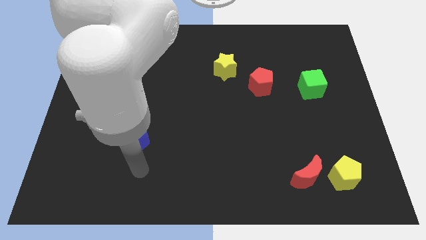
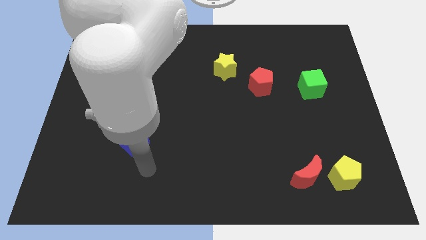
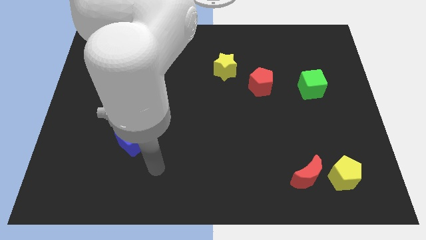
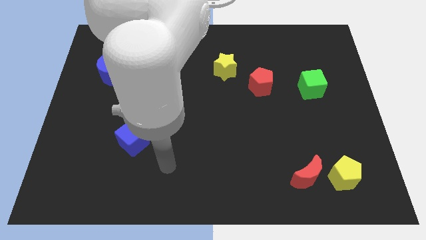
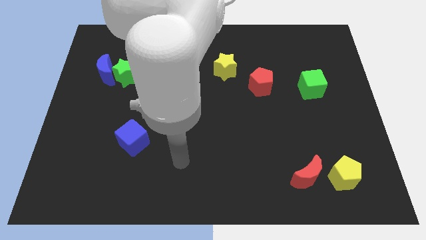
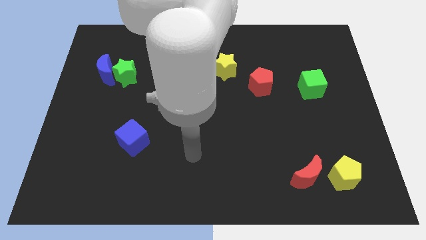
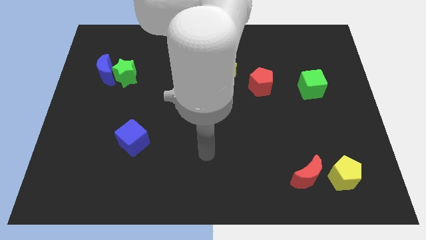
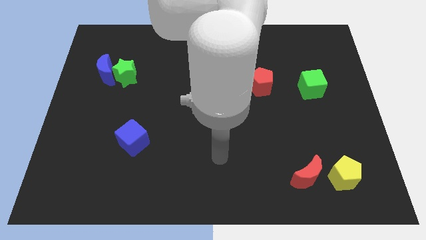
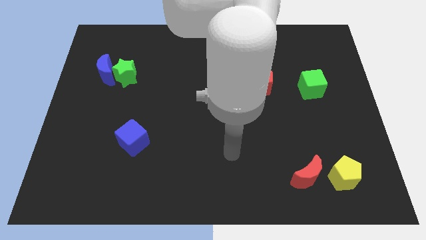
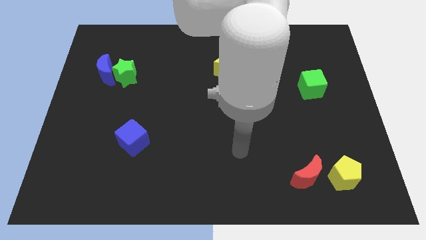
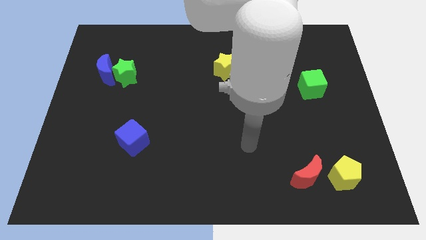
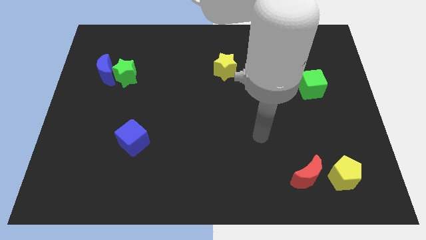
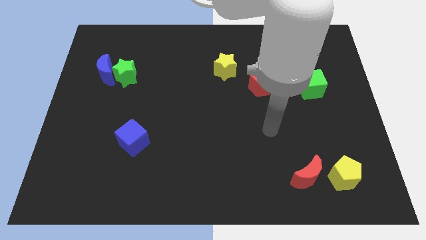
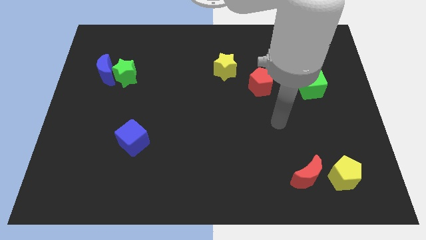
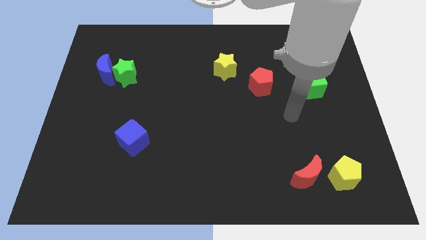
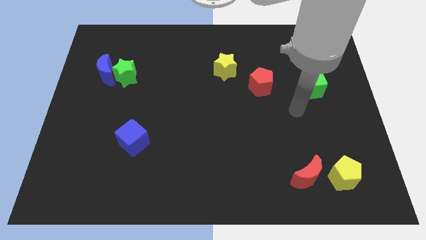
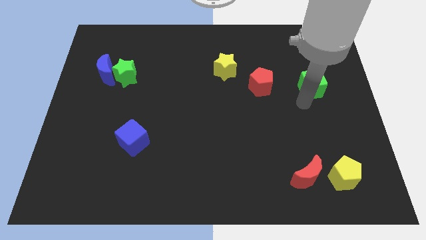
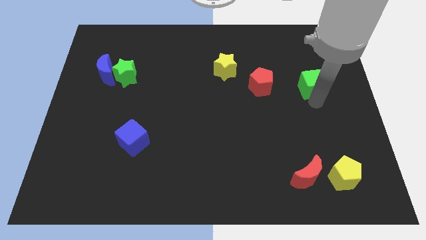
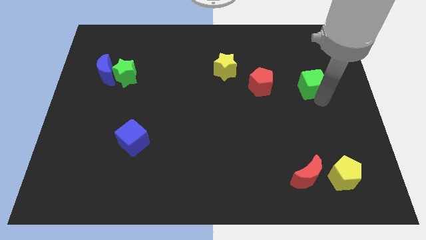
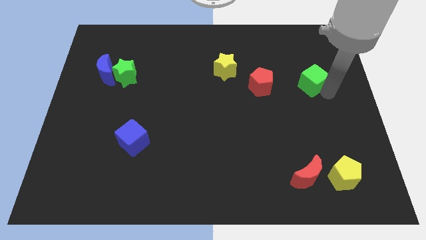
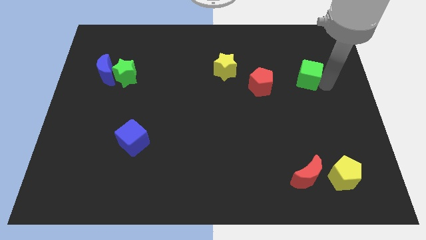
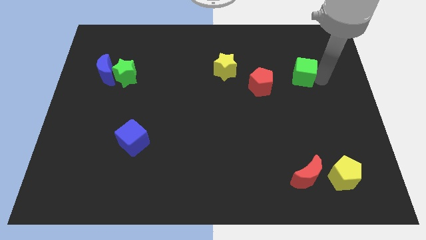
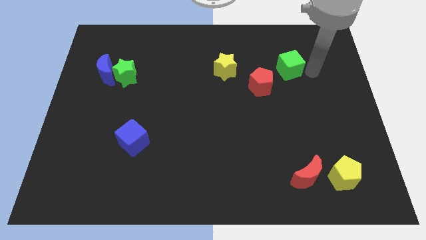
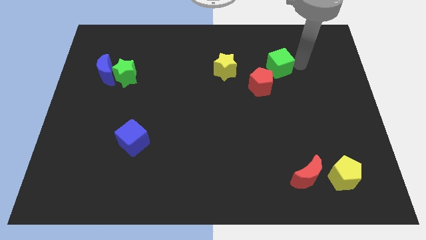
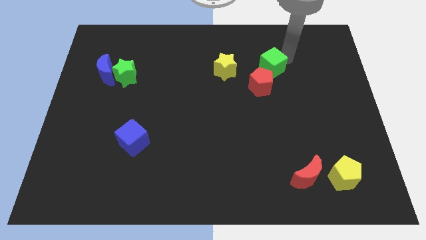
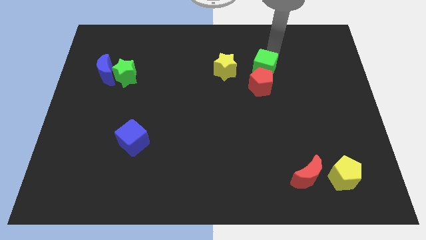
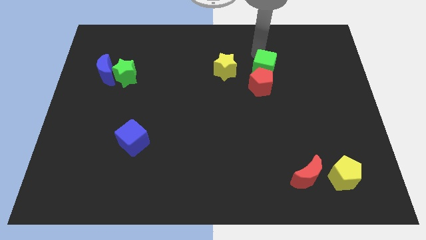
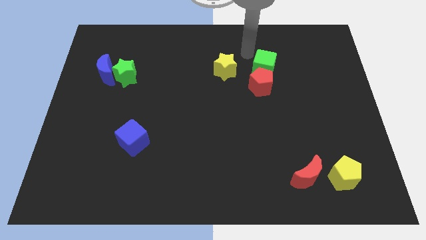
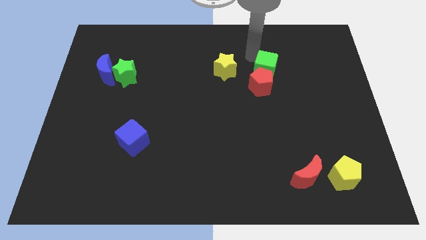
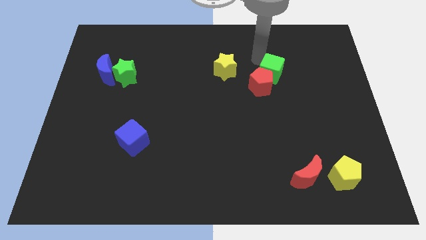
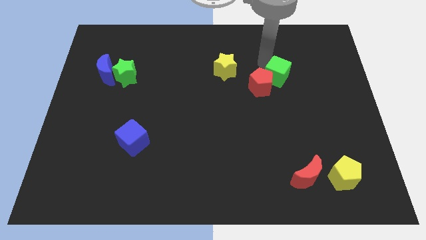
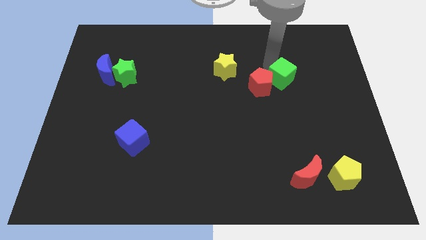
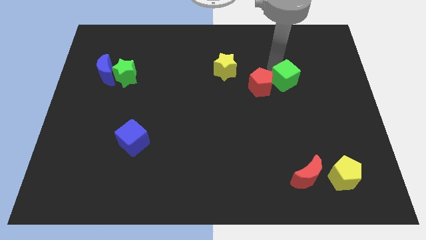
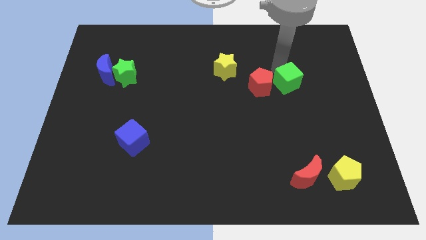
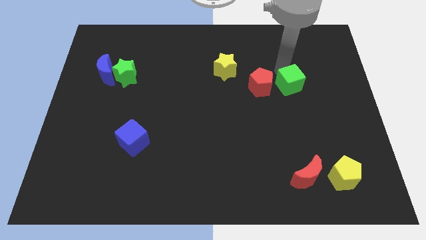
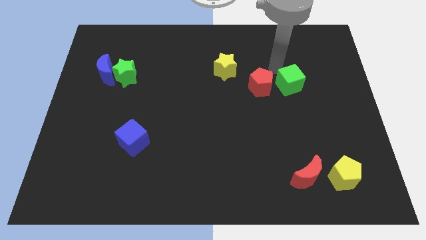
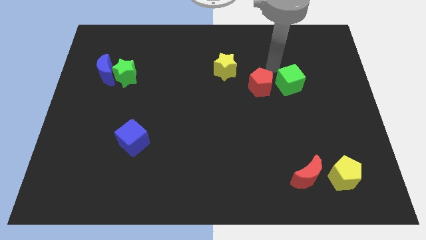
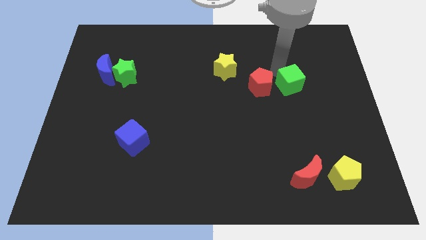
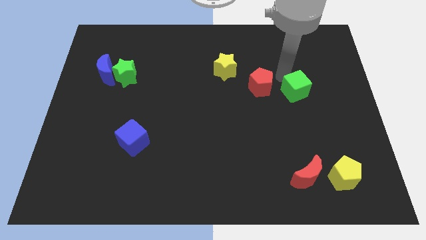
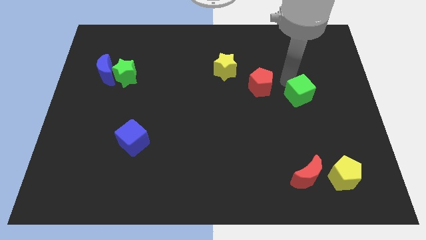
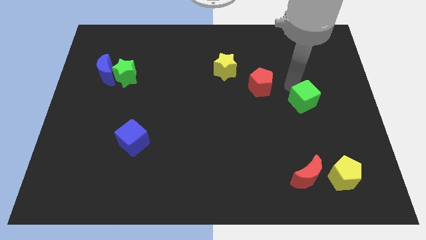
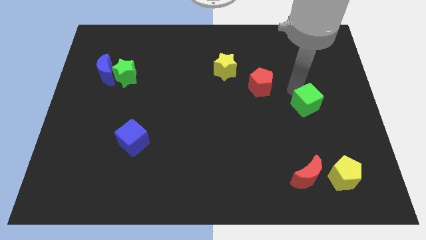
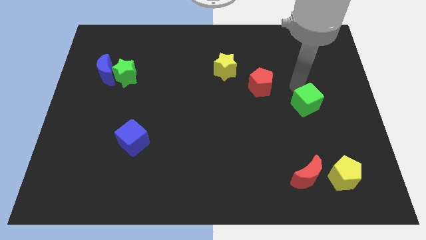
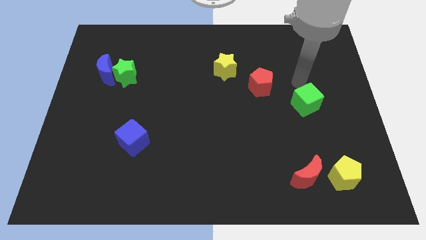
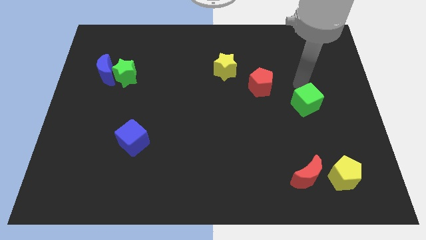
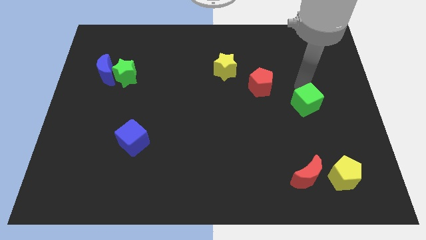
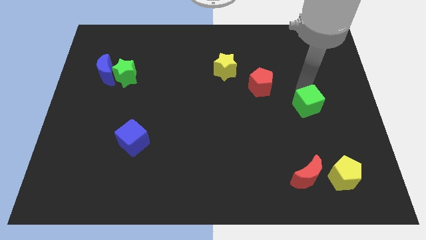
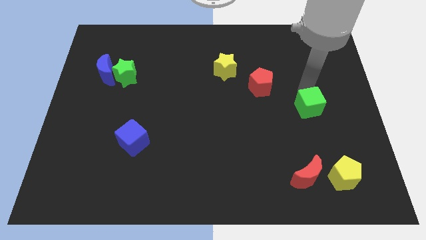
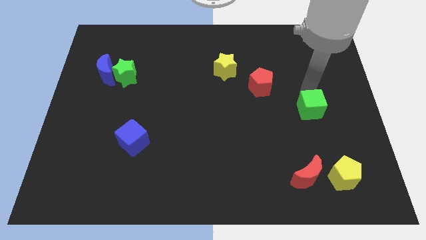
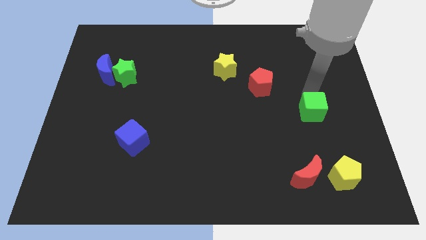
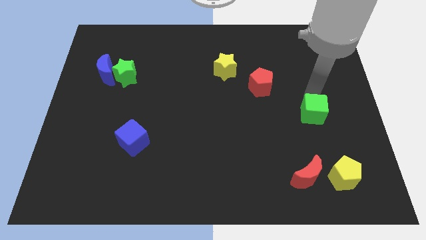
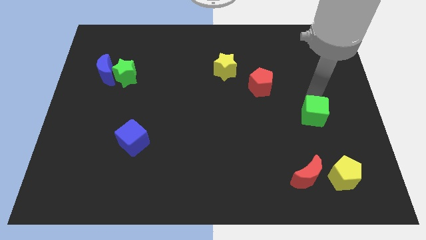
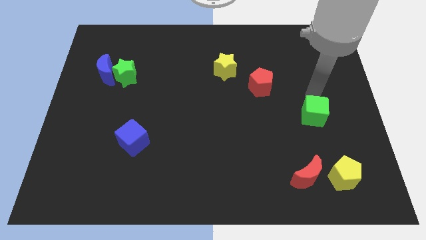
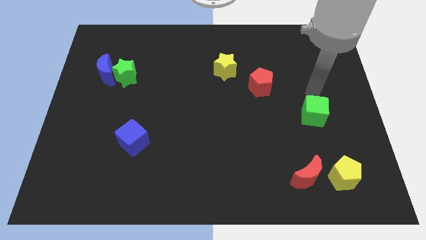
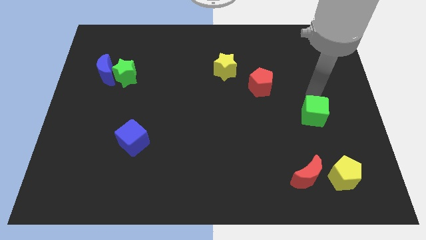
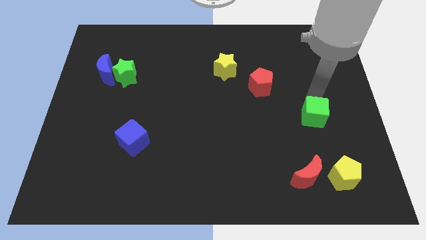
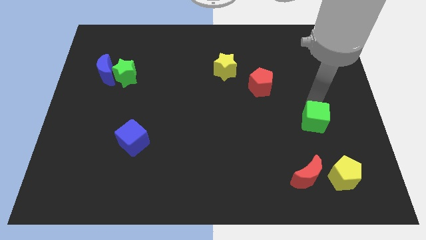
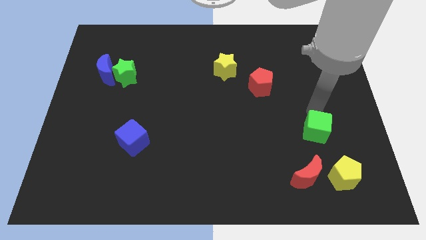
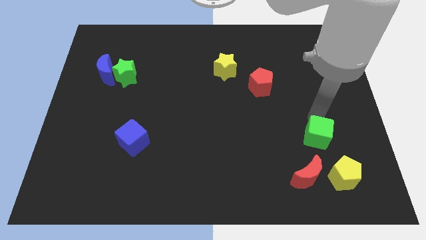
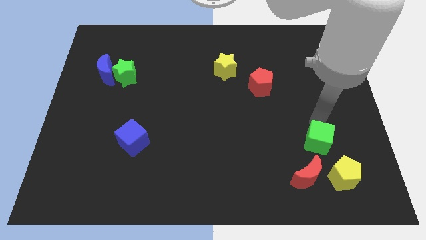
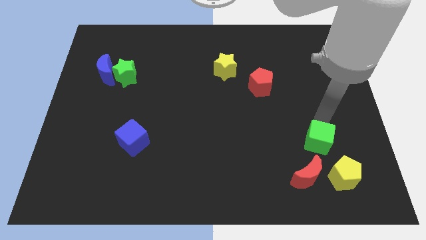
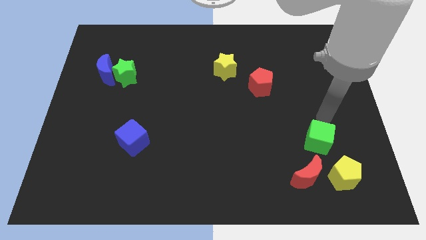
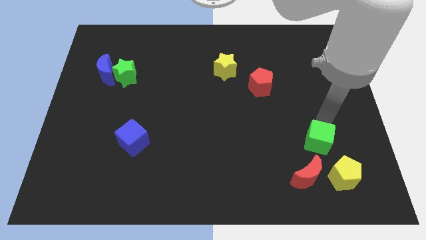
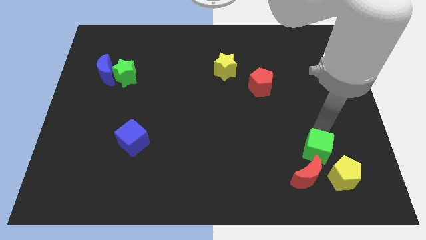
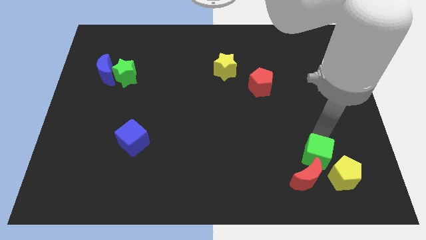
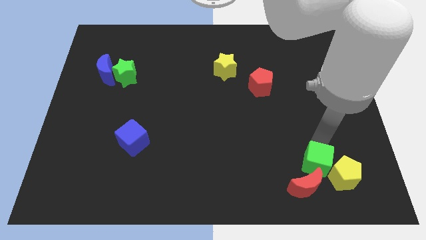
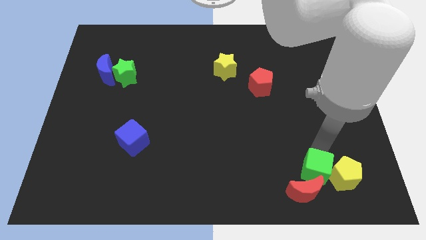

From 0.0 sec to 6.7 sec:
push the green cube to the red moon

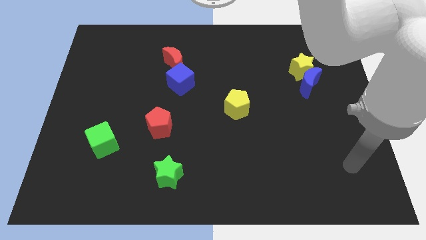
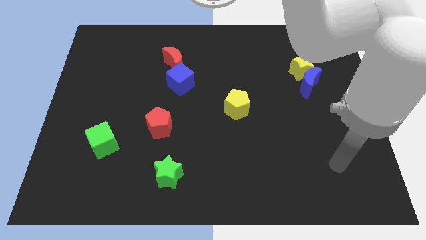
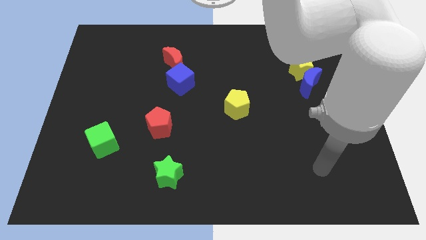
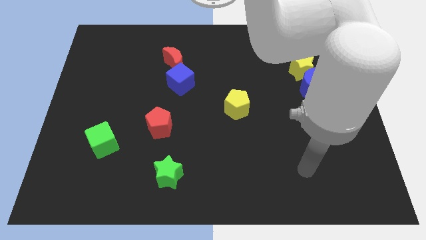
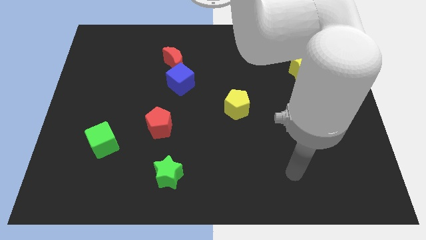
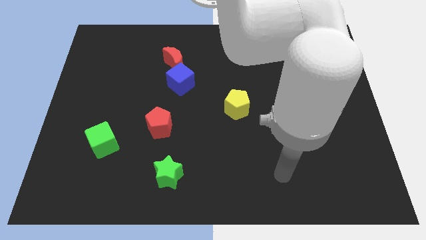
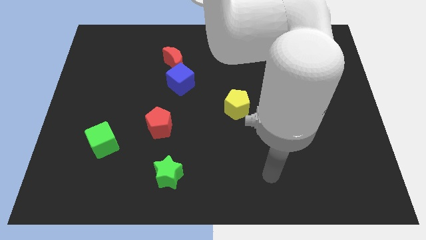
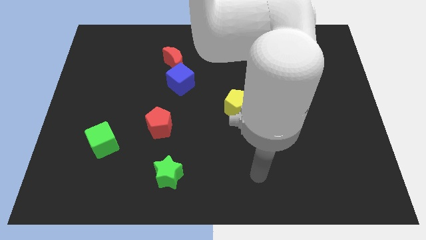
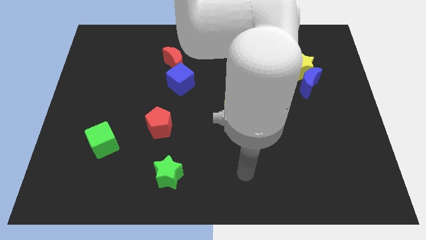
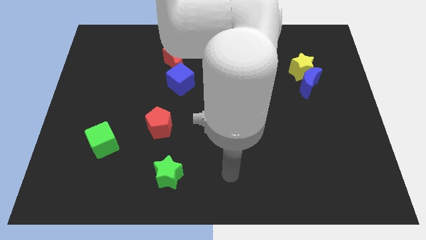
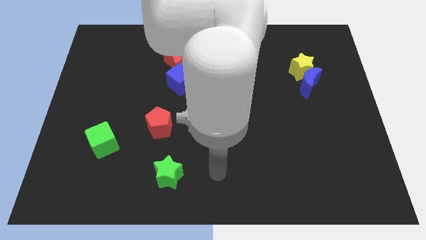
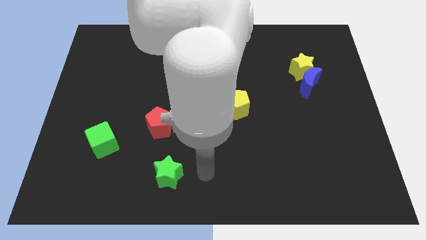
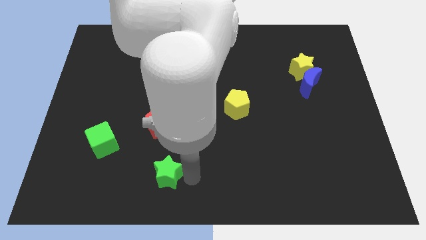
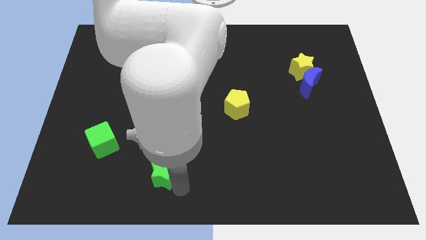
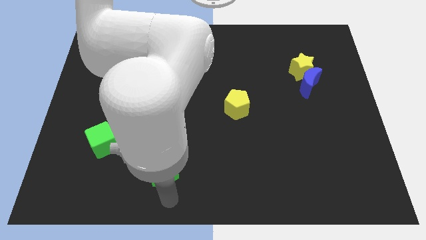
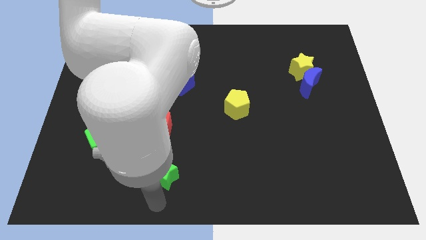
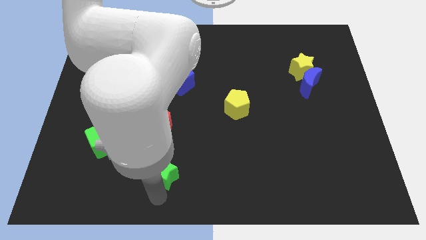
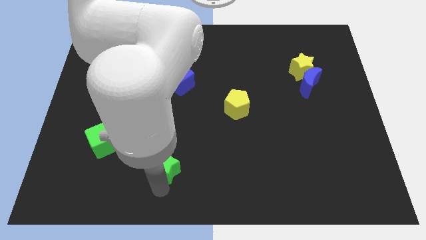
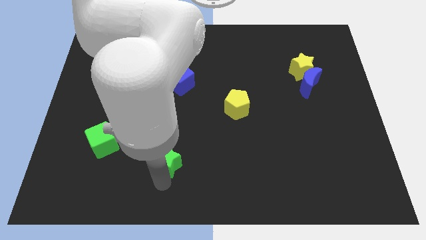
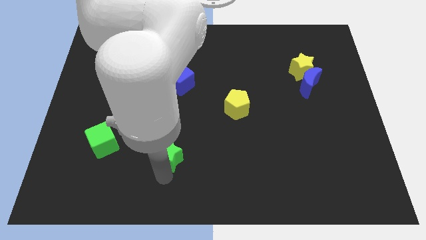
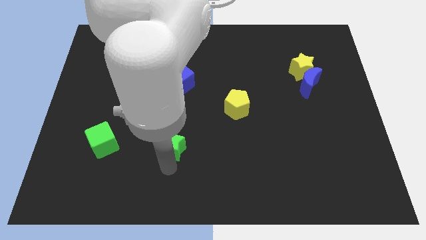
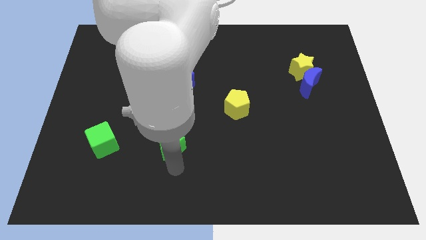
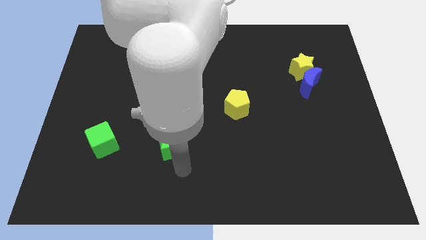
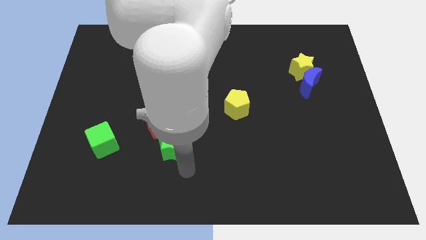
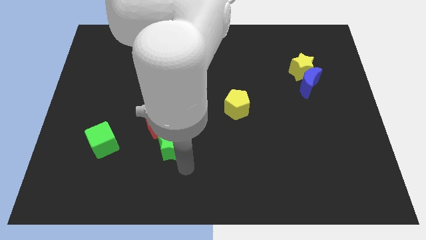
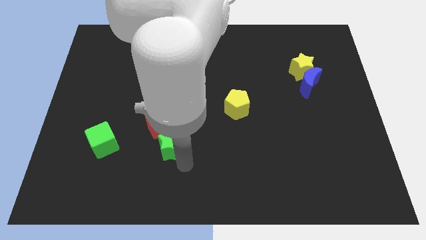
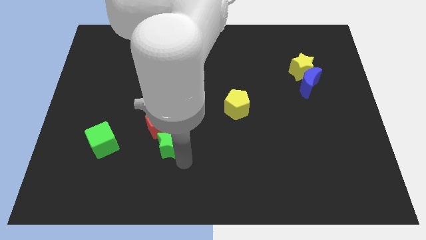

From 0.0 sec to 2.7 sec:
push the green star towards the red pentagon
